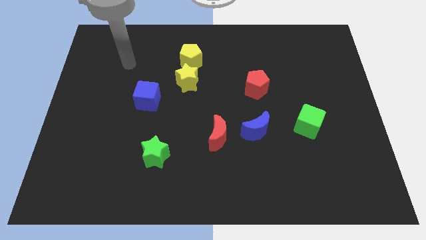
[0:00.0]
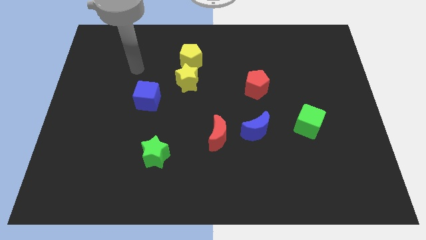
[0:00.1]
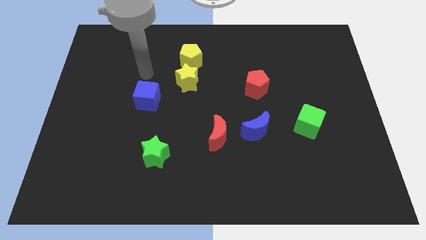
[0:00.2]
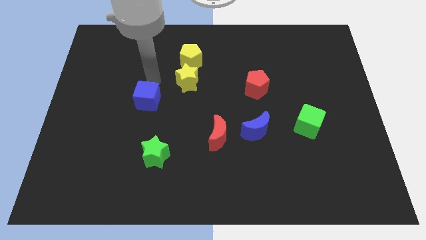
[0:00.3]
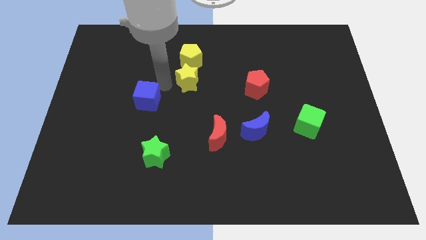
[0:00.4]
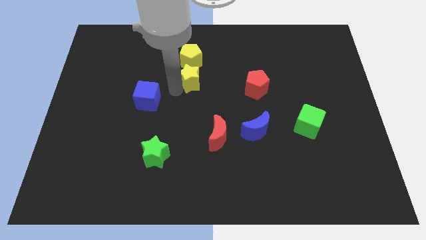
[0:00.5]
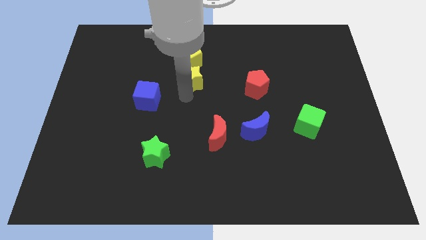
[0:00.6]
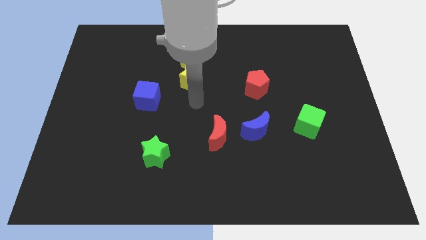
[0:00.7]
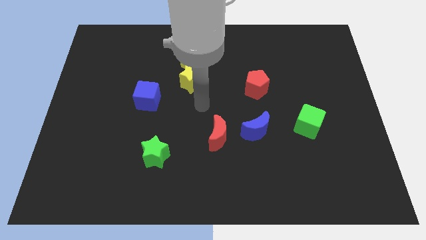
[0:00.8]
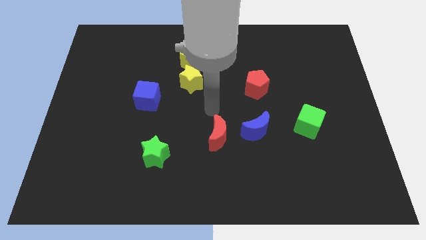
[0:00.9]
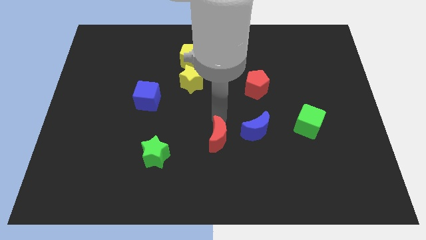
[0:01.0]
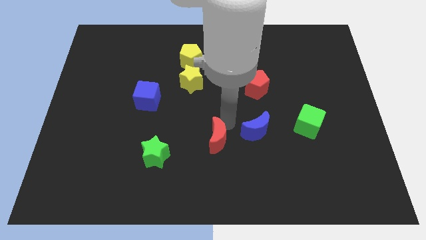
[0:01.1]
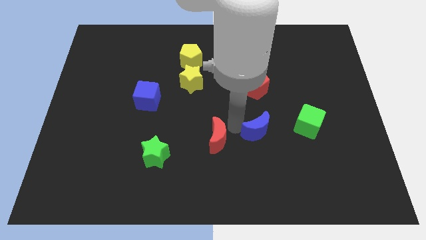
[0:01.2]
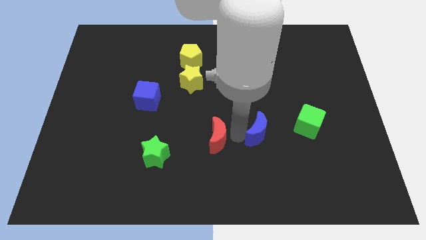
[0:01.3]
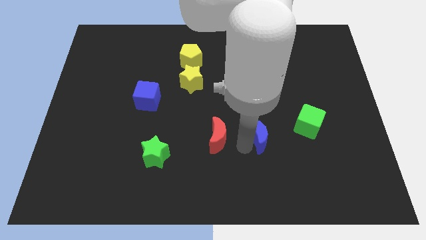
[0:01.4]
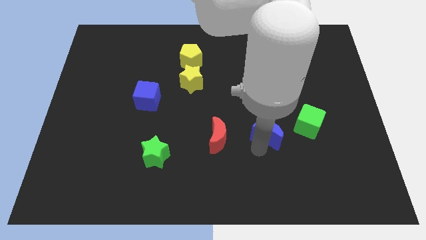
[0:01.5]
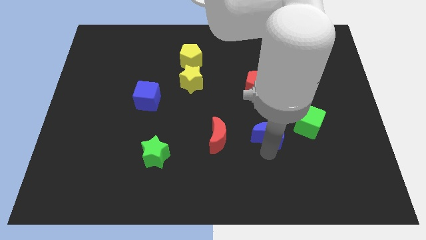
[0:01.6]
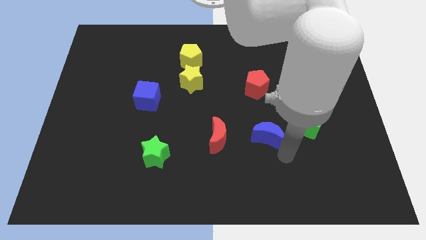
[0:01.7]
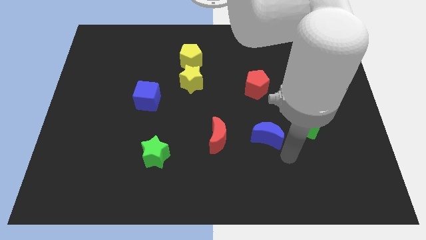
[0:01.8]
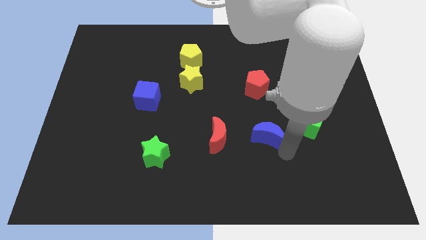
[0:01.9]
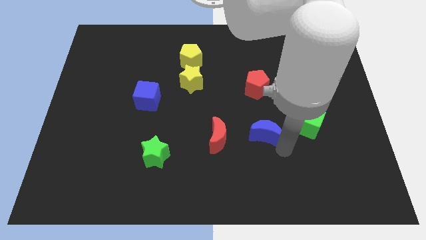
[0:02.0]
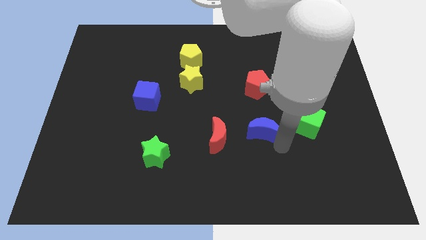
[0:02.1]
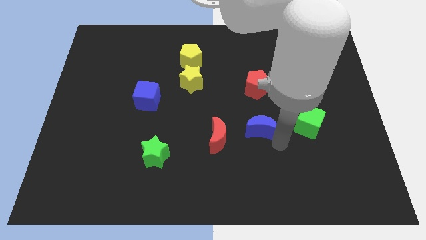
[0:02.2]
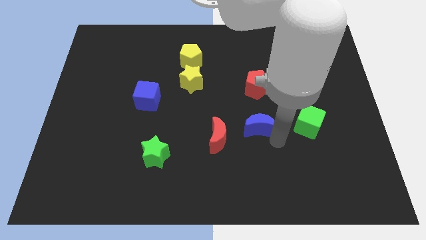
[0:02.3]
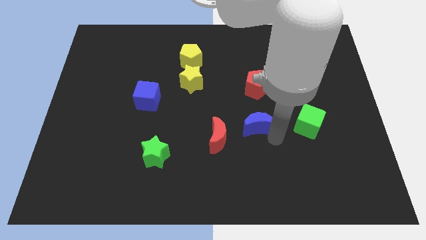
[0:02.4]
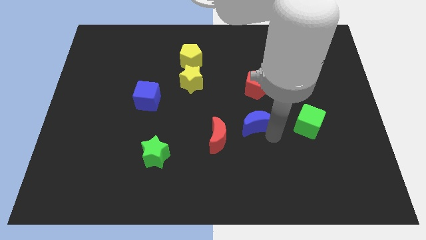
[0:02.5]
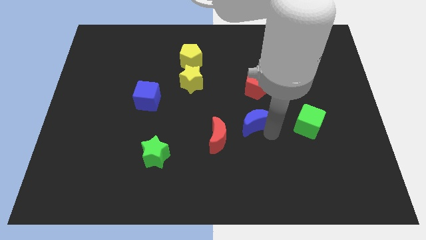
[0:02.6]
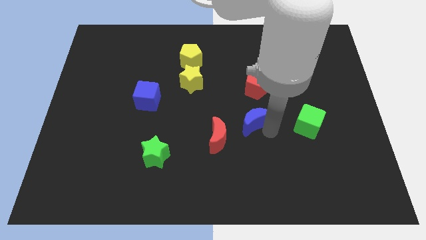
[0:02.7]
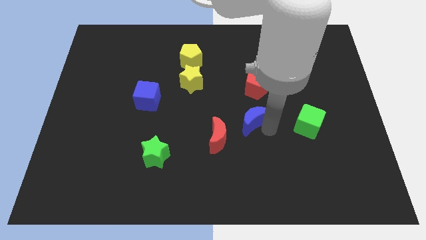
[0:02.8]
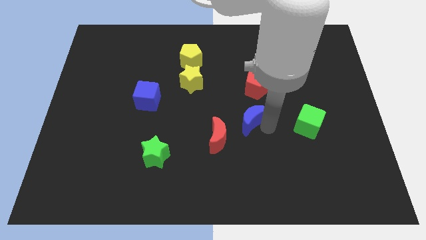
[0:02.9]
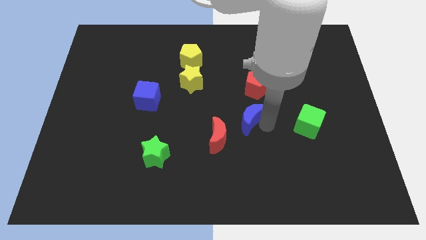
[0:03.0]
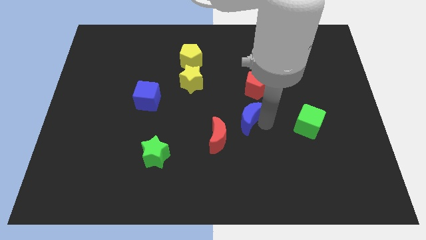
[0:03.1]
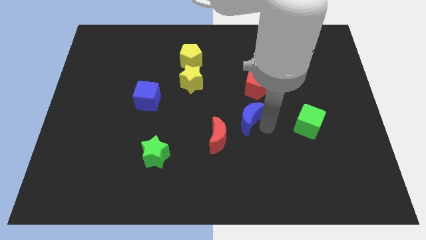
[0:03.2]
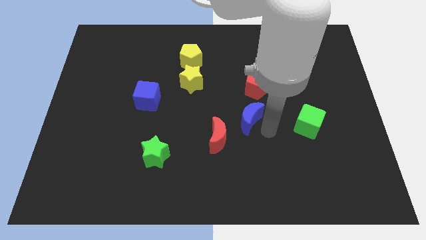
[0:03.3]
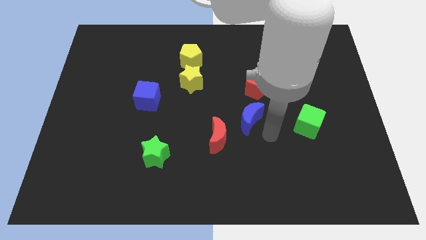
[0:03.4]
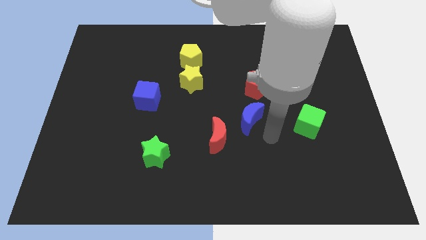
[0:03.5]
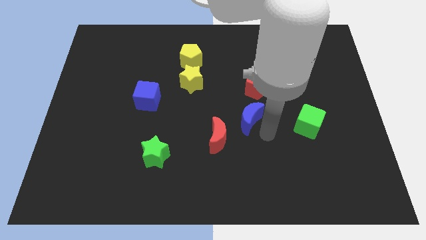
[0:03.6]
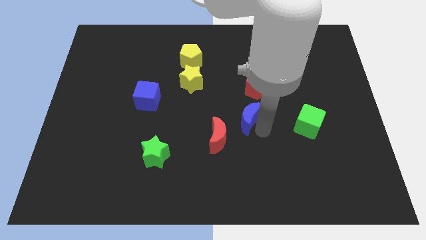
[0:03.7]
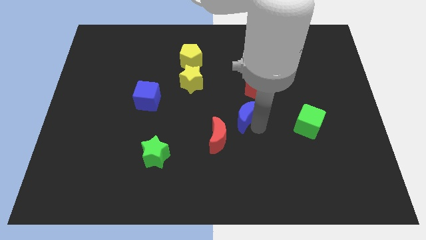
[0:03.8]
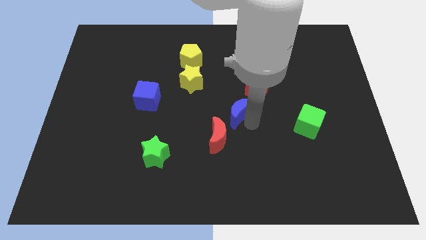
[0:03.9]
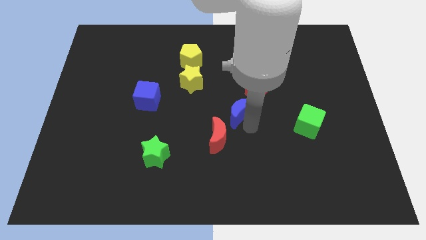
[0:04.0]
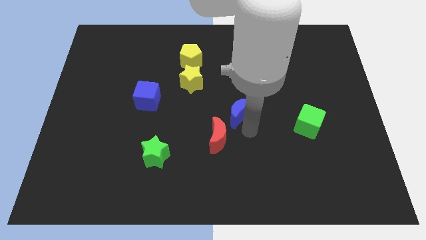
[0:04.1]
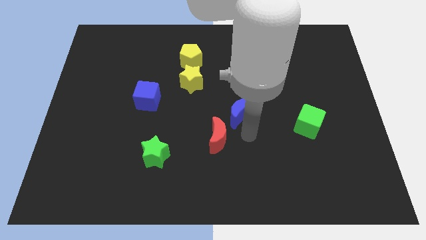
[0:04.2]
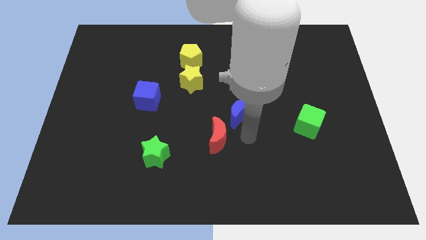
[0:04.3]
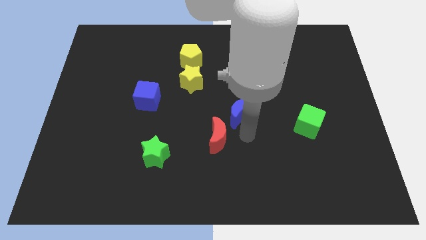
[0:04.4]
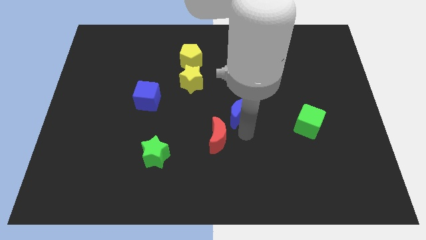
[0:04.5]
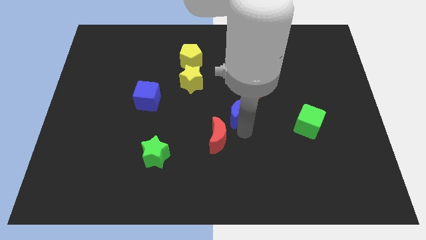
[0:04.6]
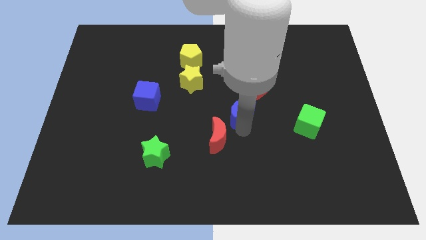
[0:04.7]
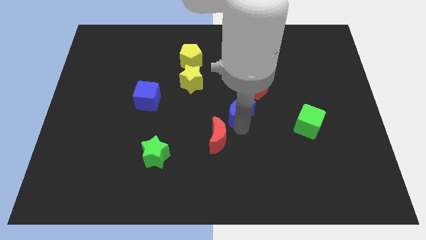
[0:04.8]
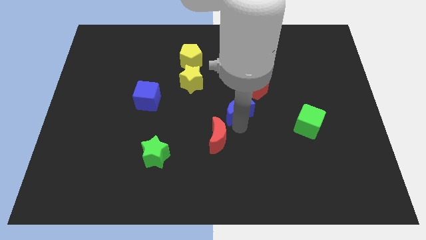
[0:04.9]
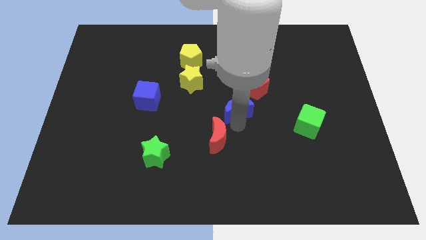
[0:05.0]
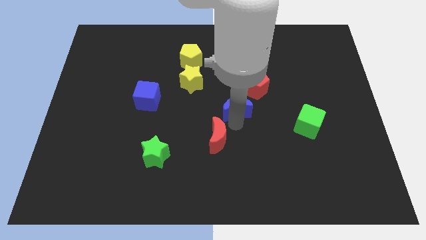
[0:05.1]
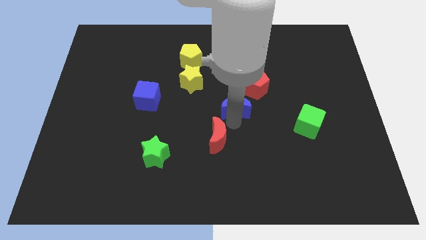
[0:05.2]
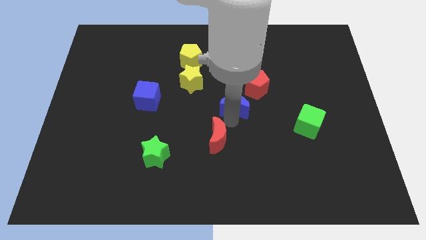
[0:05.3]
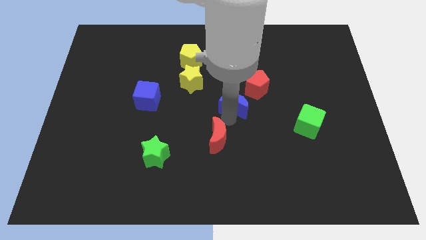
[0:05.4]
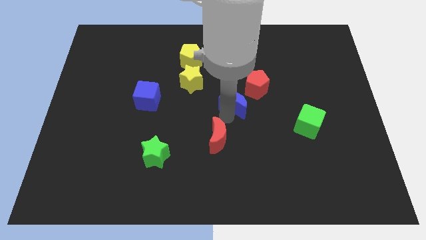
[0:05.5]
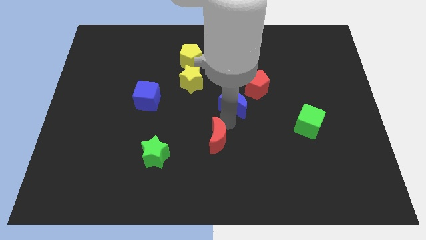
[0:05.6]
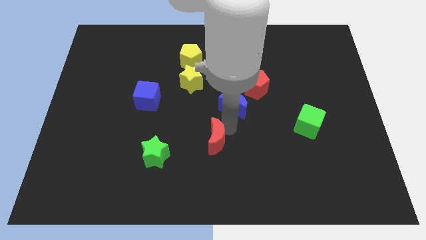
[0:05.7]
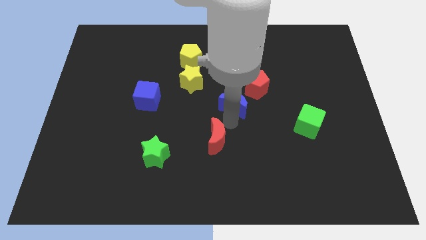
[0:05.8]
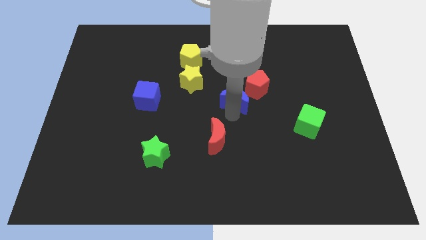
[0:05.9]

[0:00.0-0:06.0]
slightly slide the blue moon upwards

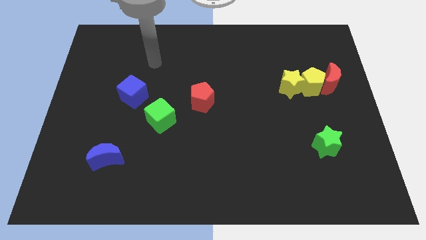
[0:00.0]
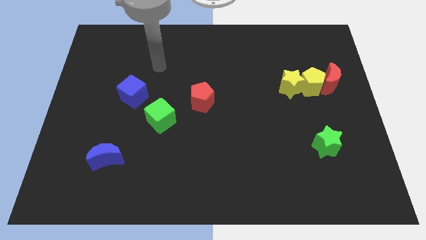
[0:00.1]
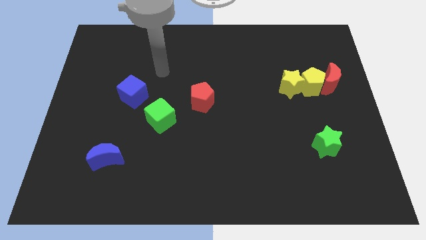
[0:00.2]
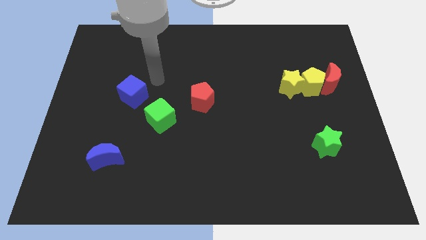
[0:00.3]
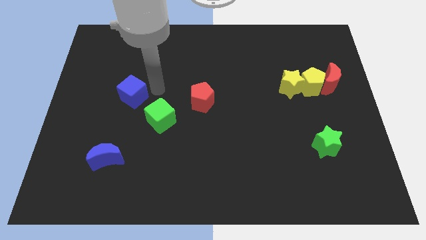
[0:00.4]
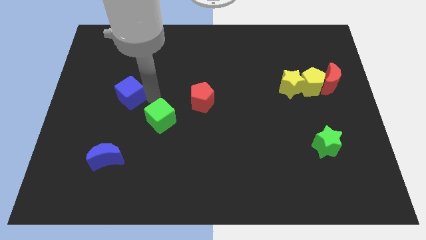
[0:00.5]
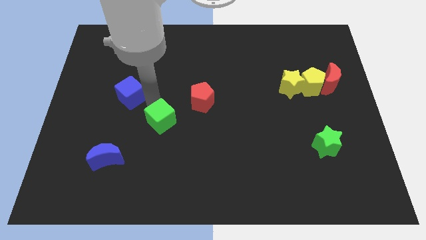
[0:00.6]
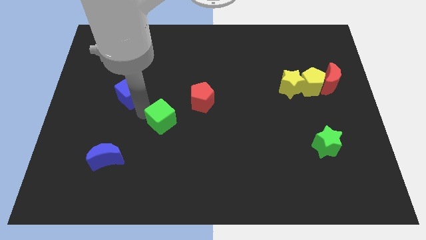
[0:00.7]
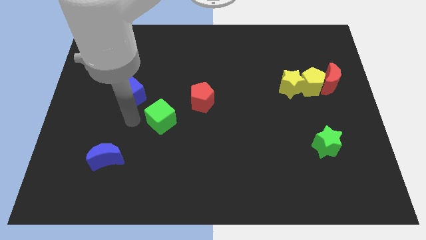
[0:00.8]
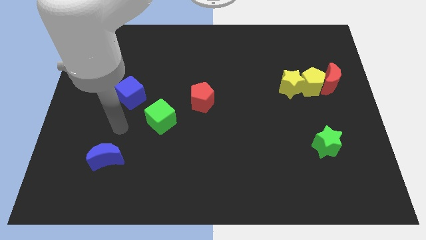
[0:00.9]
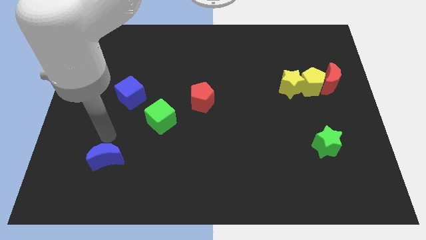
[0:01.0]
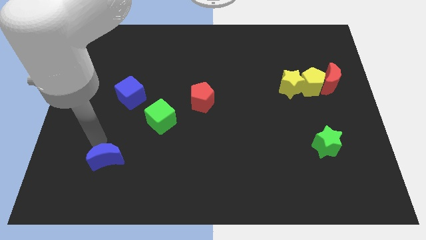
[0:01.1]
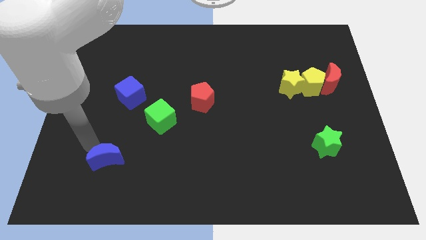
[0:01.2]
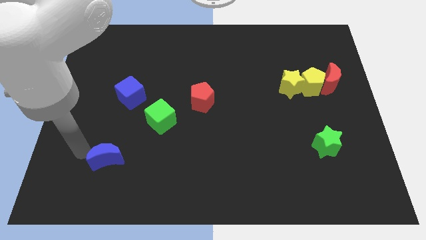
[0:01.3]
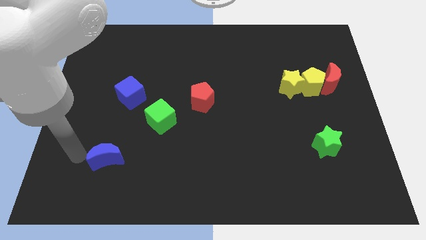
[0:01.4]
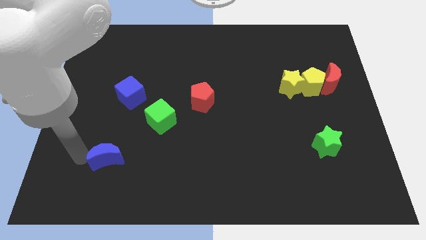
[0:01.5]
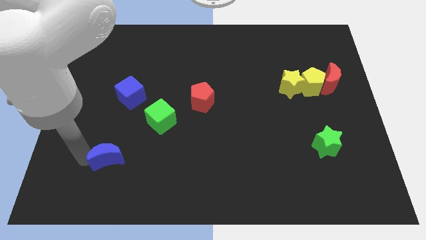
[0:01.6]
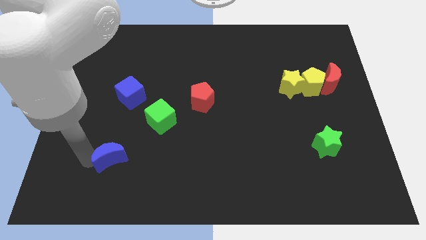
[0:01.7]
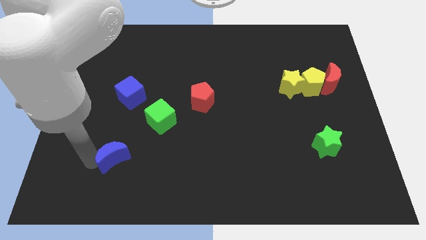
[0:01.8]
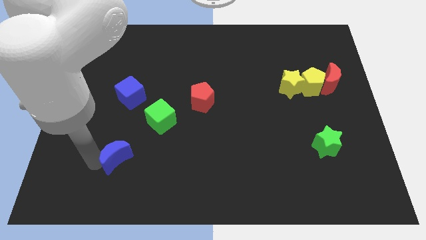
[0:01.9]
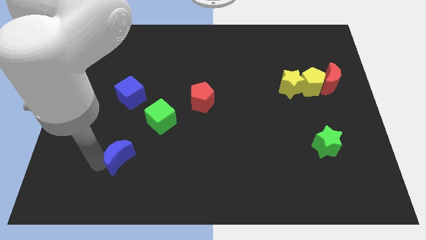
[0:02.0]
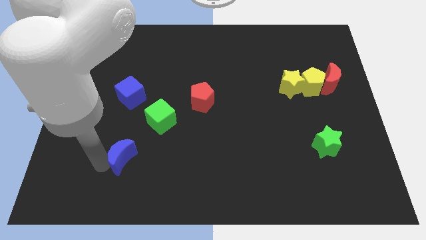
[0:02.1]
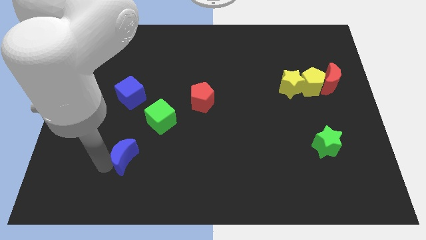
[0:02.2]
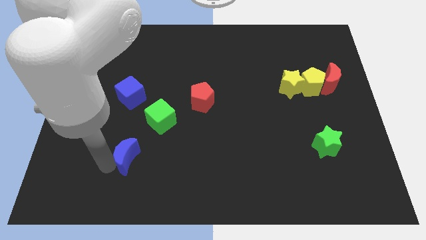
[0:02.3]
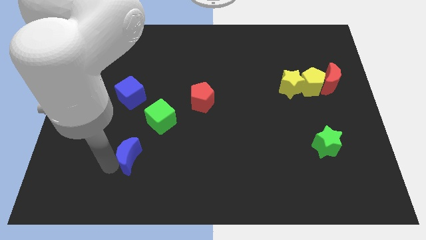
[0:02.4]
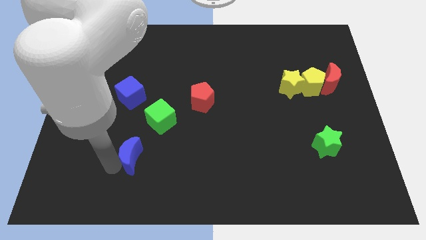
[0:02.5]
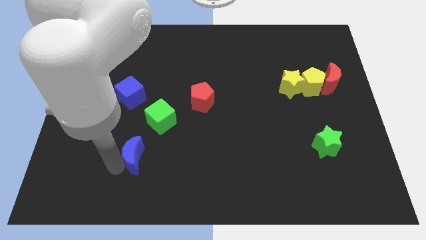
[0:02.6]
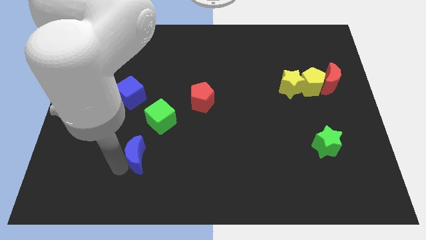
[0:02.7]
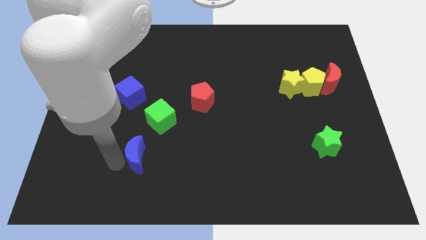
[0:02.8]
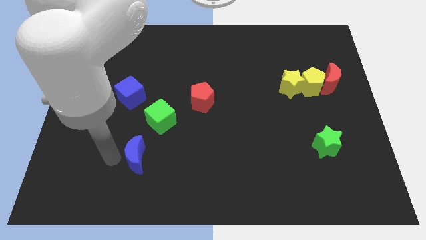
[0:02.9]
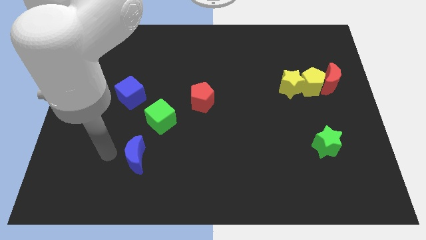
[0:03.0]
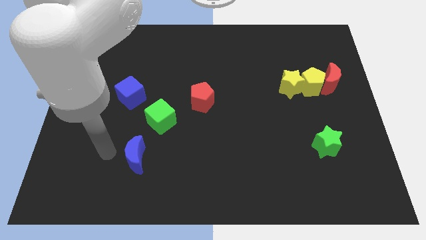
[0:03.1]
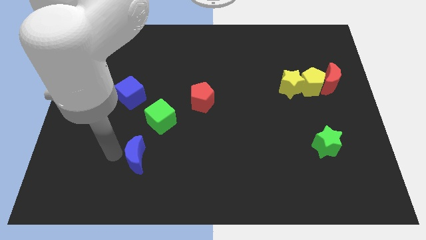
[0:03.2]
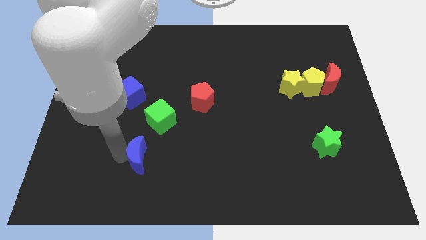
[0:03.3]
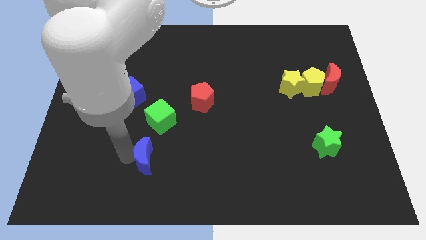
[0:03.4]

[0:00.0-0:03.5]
slightly push the blue moon right
